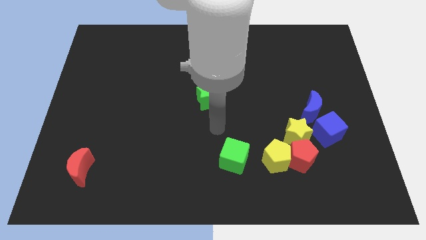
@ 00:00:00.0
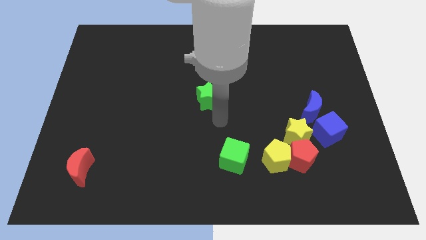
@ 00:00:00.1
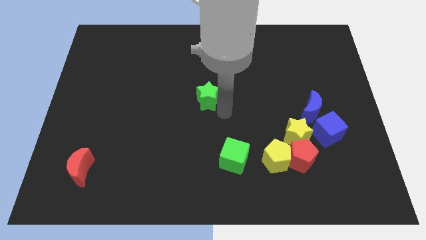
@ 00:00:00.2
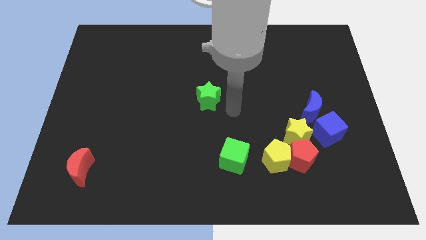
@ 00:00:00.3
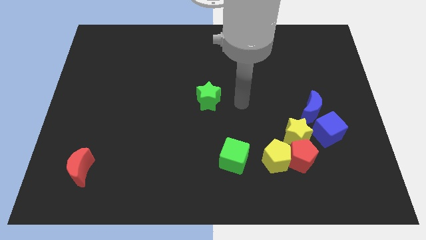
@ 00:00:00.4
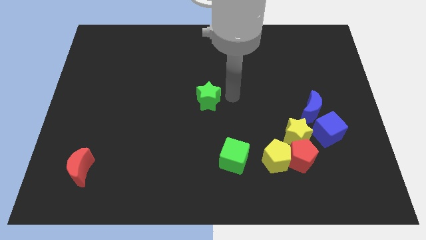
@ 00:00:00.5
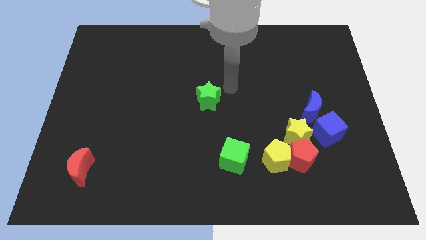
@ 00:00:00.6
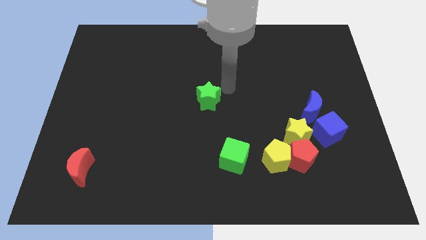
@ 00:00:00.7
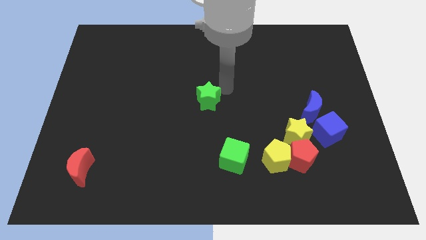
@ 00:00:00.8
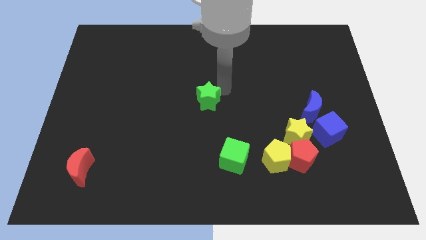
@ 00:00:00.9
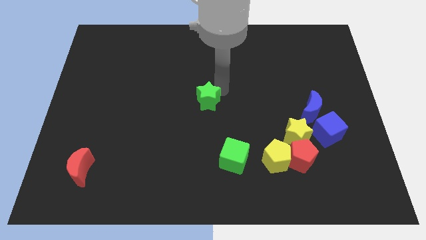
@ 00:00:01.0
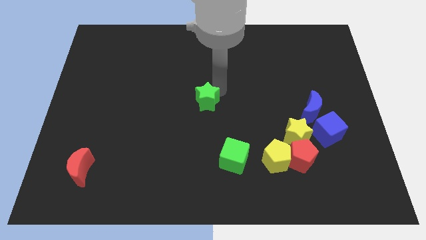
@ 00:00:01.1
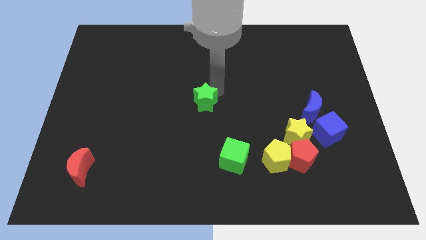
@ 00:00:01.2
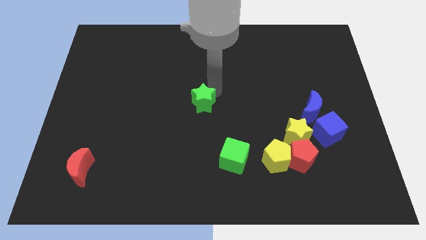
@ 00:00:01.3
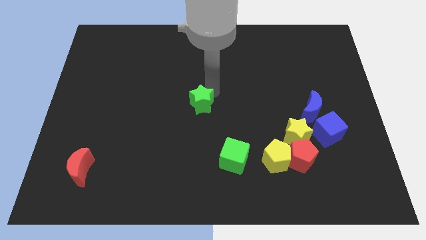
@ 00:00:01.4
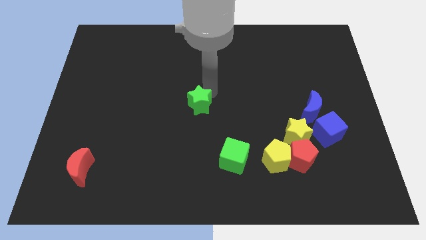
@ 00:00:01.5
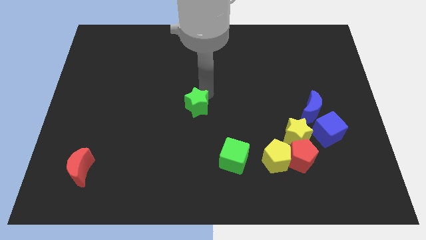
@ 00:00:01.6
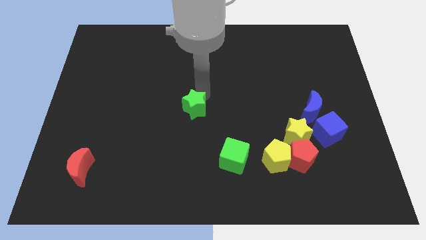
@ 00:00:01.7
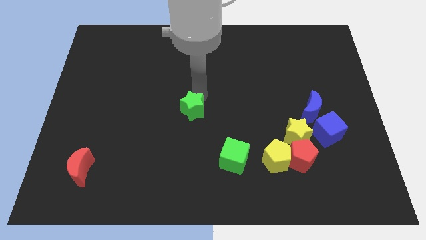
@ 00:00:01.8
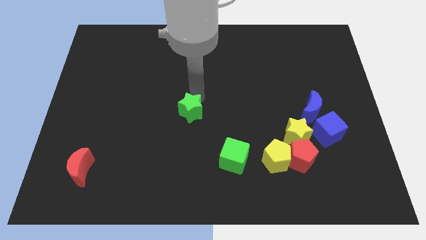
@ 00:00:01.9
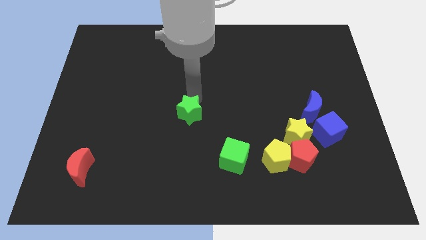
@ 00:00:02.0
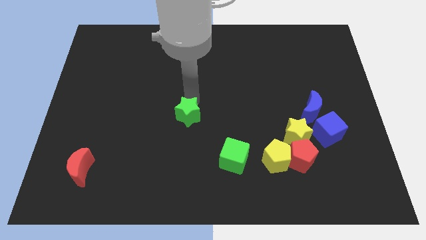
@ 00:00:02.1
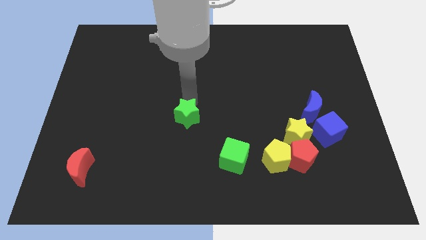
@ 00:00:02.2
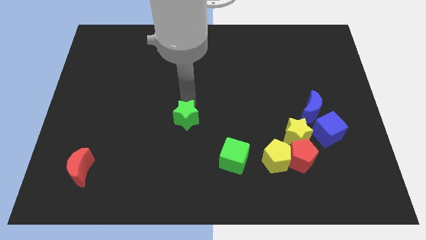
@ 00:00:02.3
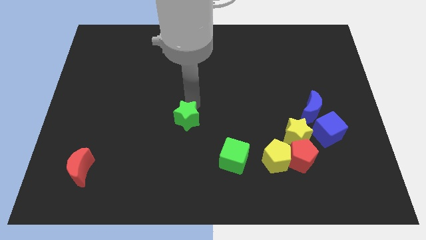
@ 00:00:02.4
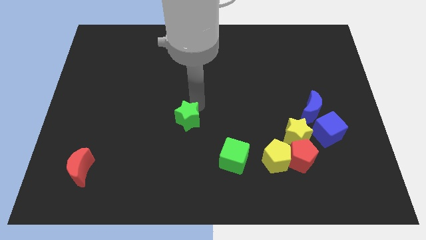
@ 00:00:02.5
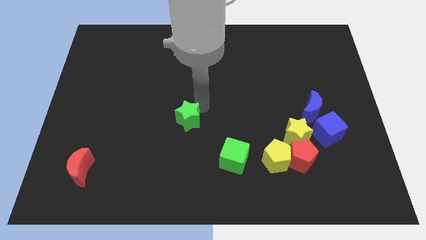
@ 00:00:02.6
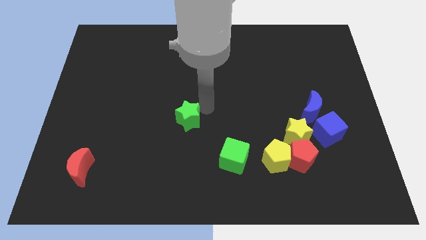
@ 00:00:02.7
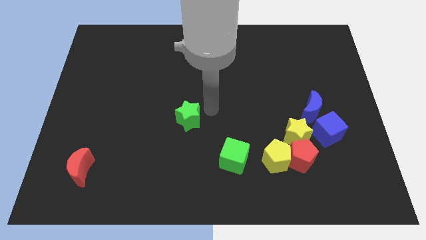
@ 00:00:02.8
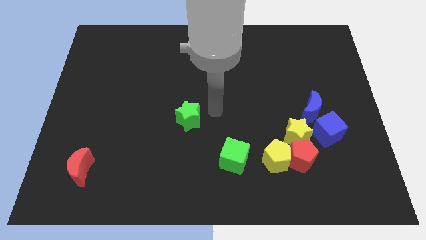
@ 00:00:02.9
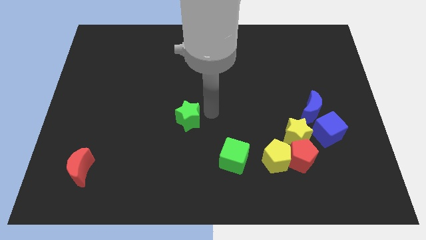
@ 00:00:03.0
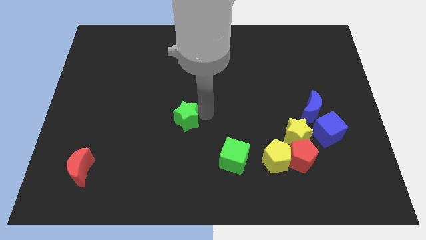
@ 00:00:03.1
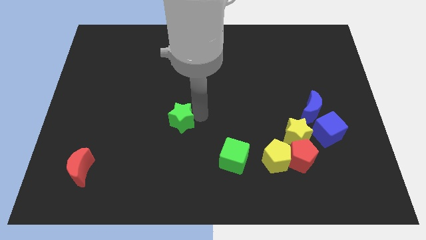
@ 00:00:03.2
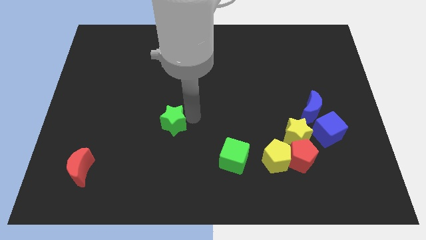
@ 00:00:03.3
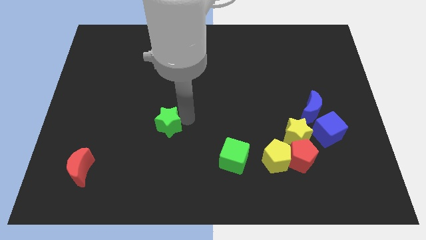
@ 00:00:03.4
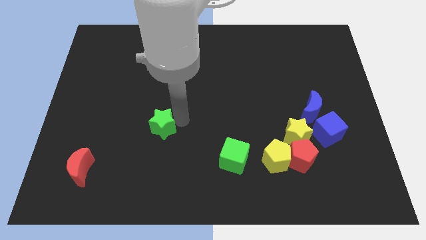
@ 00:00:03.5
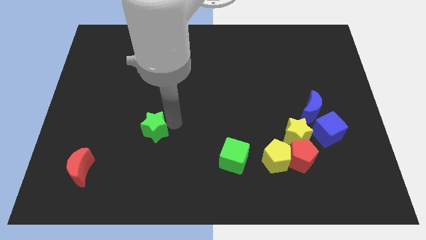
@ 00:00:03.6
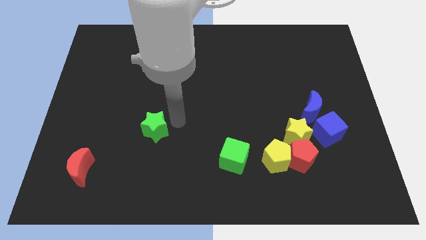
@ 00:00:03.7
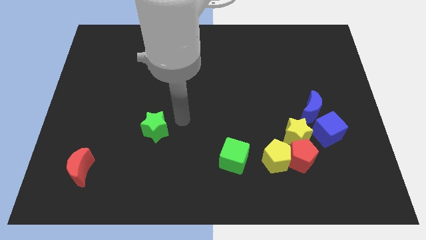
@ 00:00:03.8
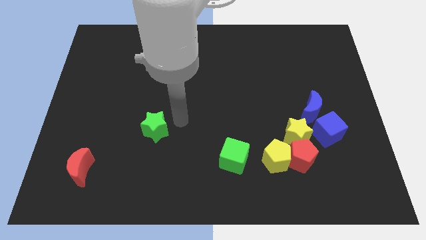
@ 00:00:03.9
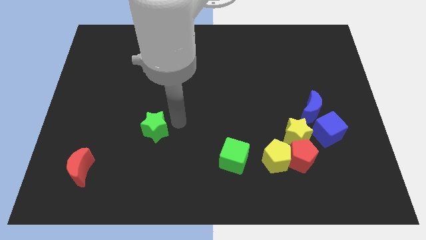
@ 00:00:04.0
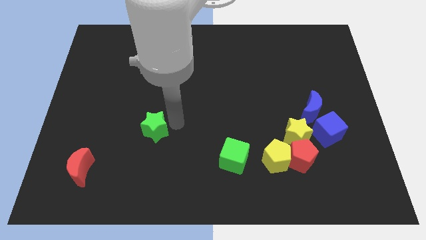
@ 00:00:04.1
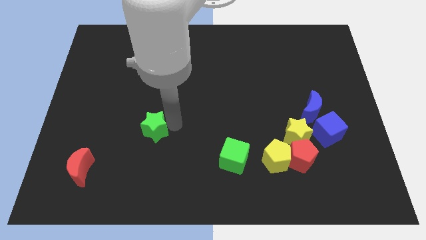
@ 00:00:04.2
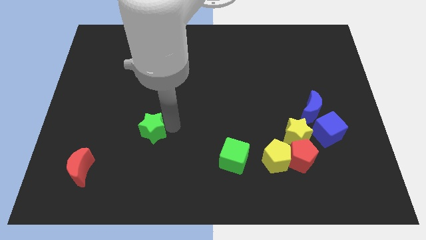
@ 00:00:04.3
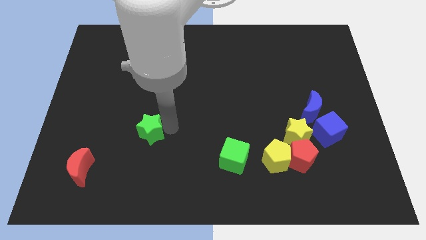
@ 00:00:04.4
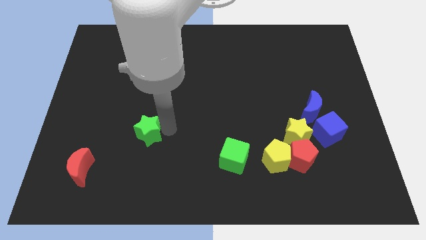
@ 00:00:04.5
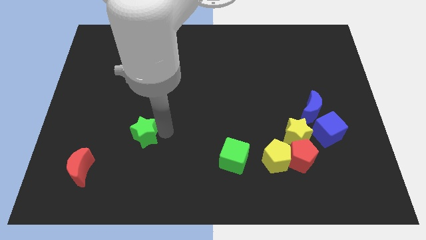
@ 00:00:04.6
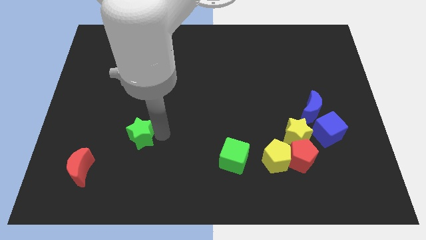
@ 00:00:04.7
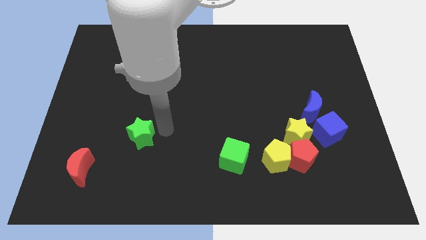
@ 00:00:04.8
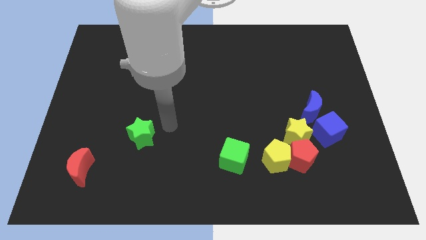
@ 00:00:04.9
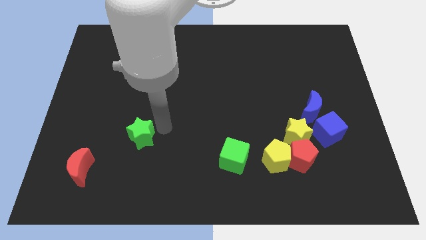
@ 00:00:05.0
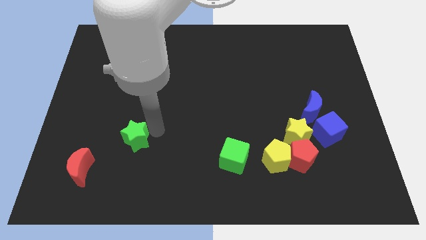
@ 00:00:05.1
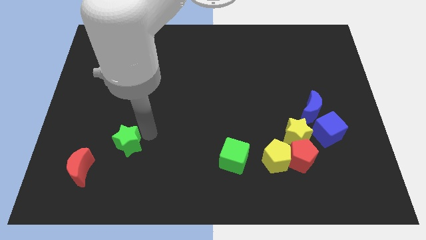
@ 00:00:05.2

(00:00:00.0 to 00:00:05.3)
slide the green star to the top right side of the red moon

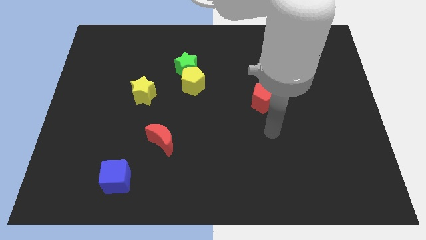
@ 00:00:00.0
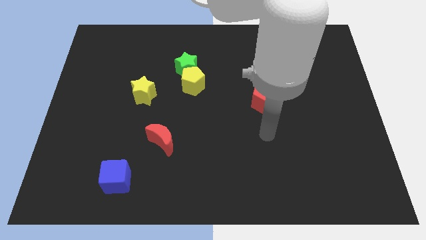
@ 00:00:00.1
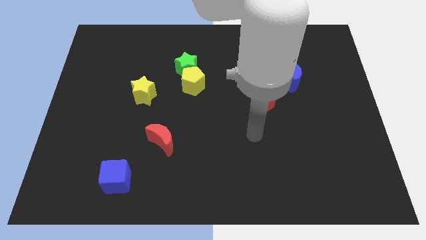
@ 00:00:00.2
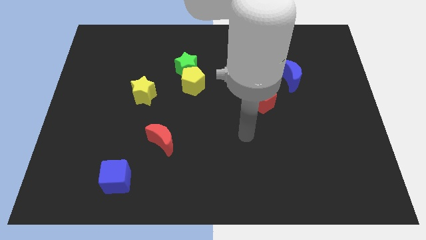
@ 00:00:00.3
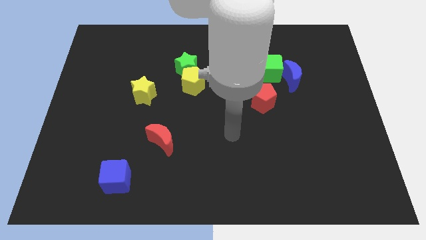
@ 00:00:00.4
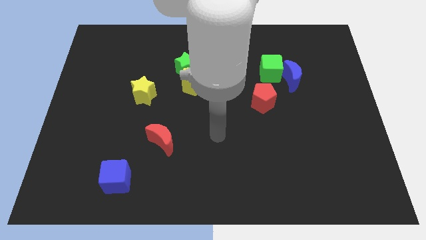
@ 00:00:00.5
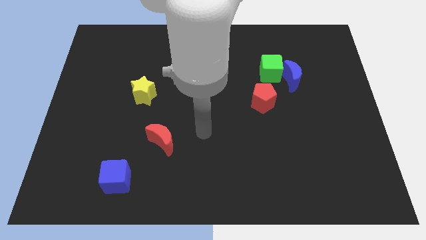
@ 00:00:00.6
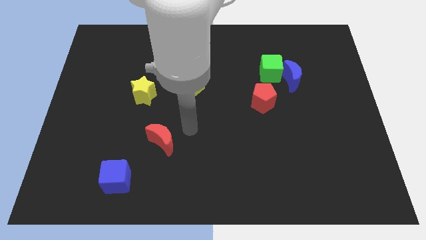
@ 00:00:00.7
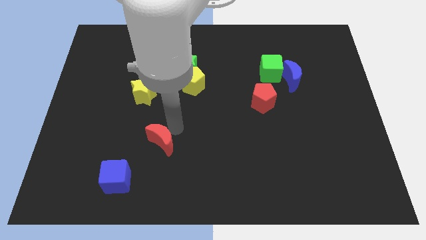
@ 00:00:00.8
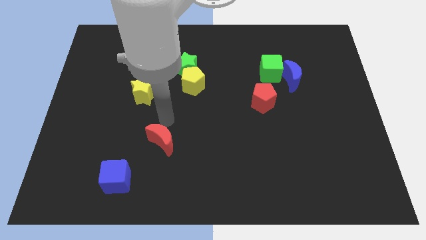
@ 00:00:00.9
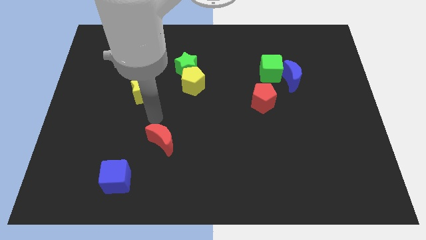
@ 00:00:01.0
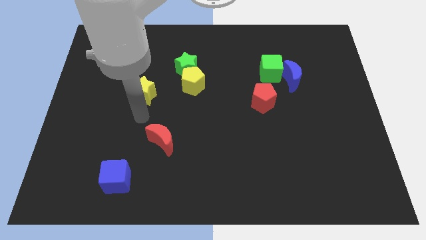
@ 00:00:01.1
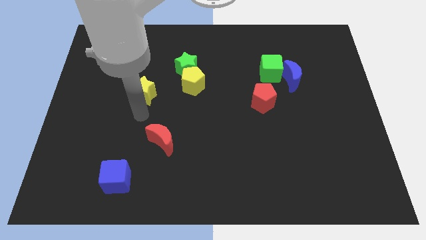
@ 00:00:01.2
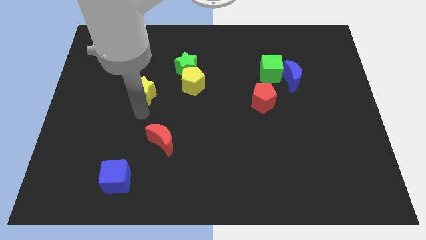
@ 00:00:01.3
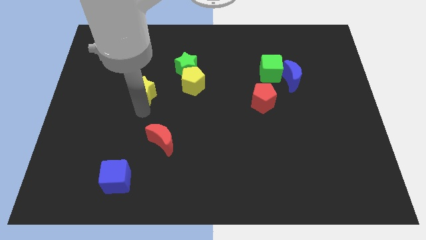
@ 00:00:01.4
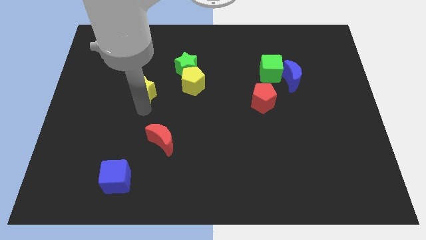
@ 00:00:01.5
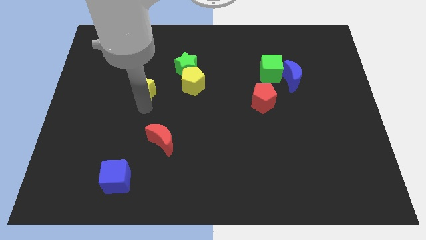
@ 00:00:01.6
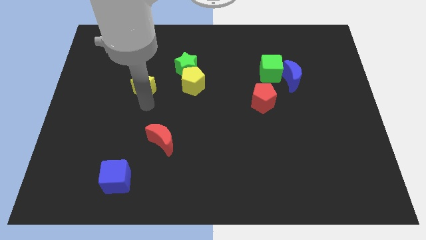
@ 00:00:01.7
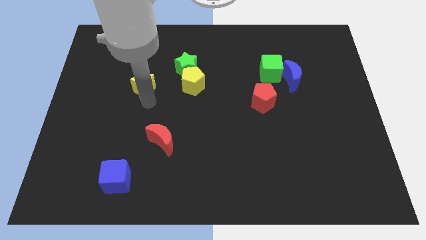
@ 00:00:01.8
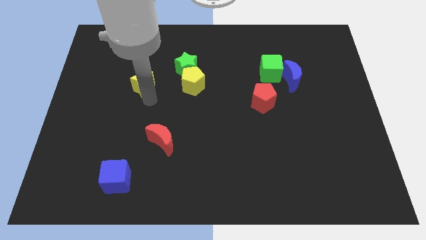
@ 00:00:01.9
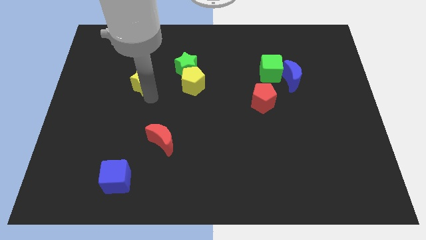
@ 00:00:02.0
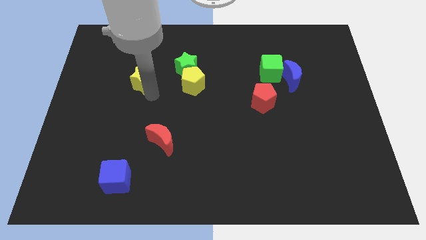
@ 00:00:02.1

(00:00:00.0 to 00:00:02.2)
move the yellow star to the left side of the green star
